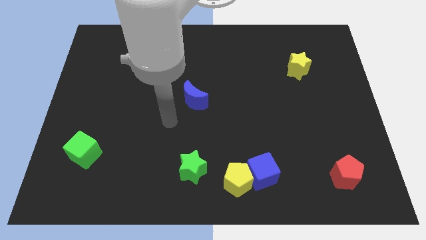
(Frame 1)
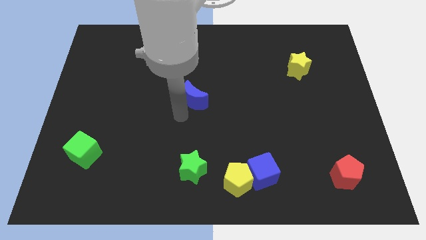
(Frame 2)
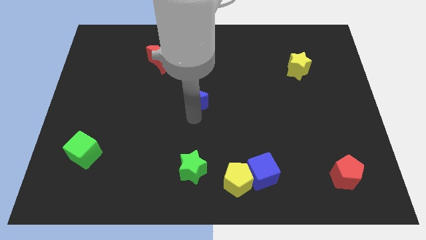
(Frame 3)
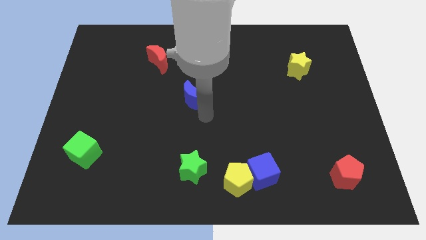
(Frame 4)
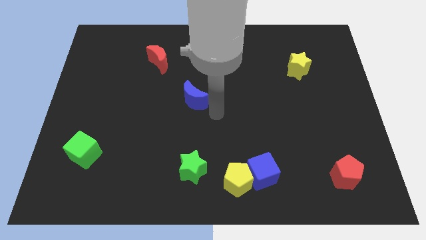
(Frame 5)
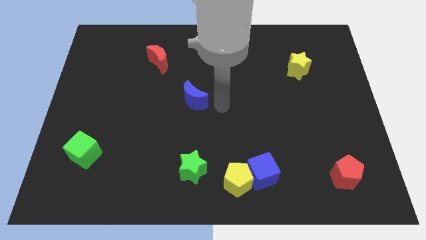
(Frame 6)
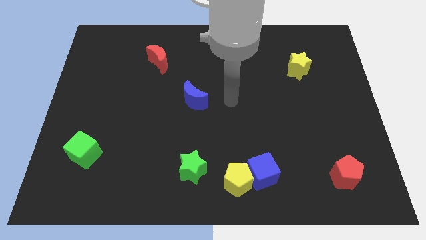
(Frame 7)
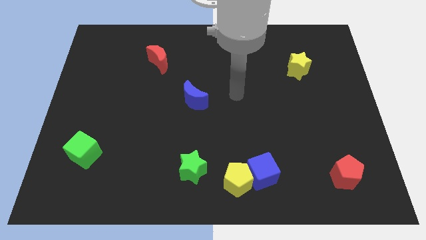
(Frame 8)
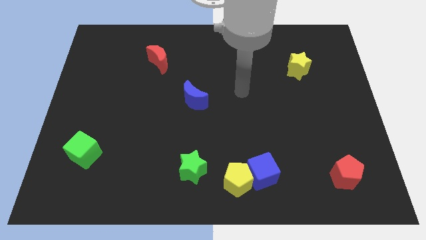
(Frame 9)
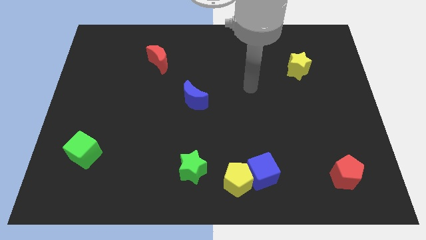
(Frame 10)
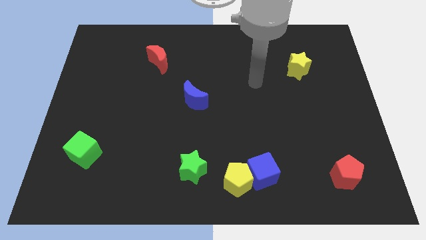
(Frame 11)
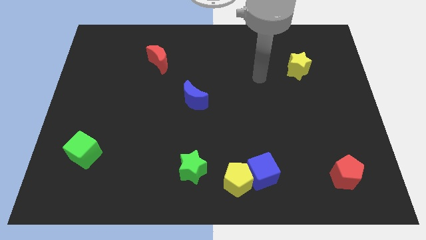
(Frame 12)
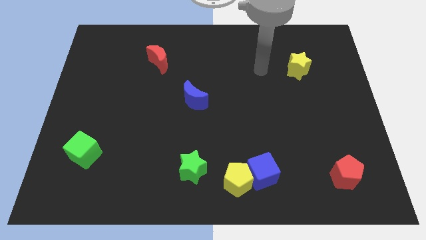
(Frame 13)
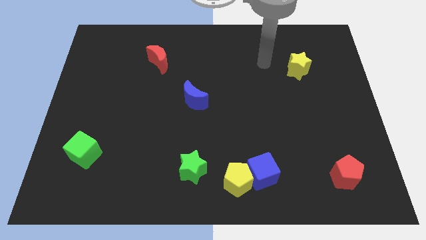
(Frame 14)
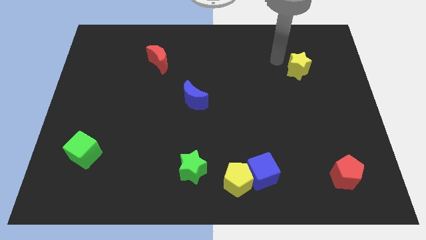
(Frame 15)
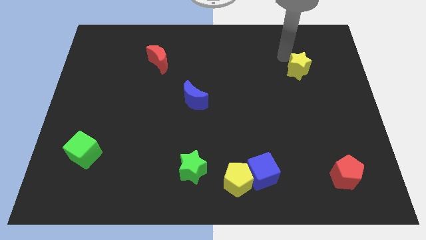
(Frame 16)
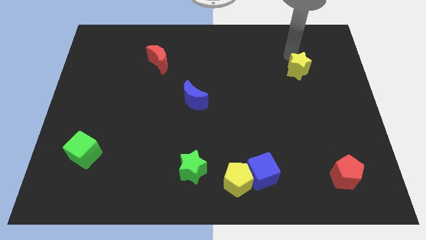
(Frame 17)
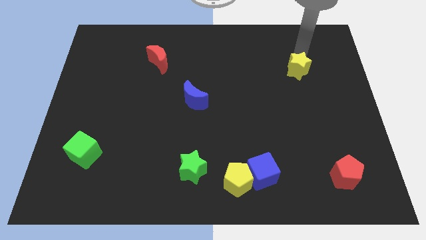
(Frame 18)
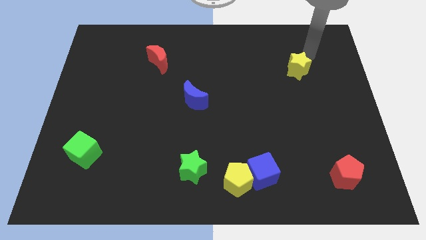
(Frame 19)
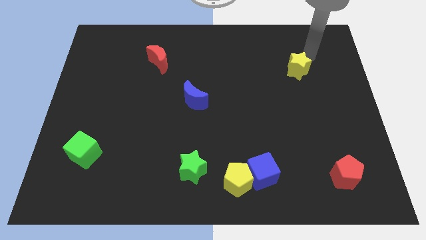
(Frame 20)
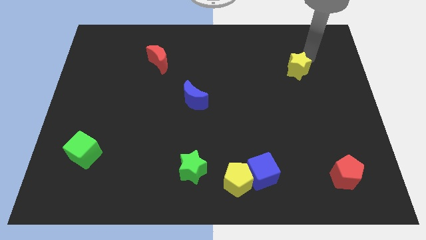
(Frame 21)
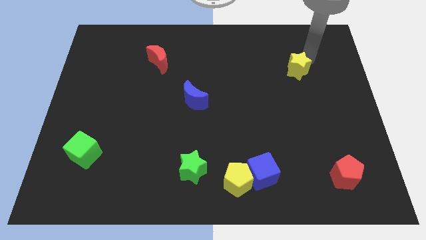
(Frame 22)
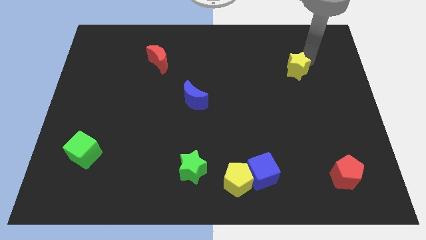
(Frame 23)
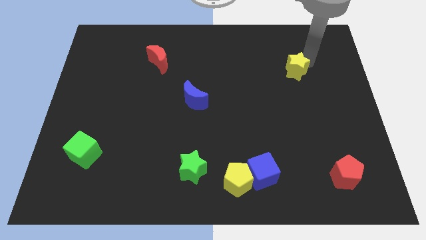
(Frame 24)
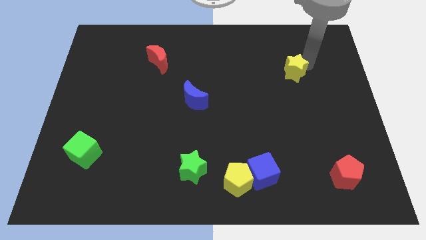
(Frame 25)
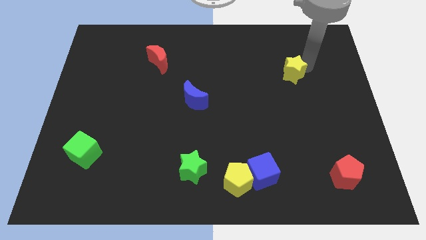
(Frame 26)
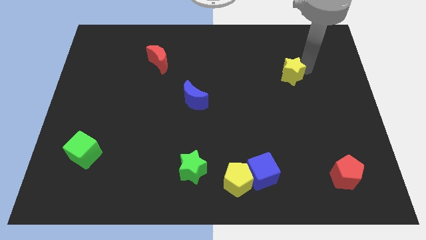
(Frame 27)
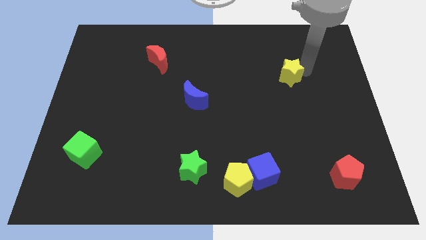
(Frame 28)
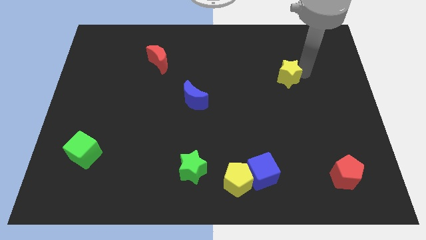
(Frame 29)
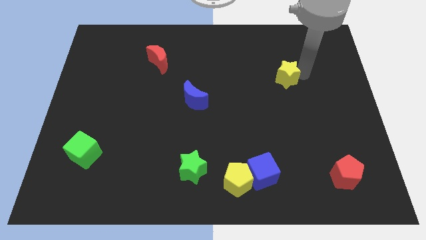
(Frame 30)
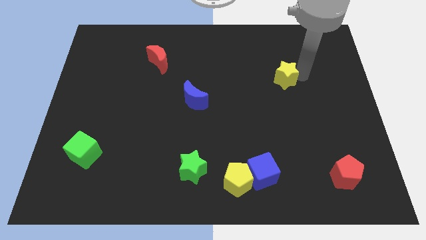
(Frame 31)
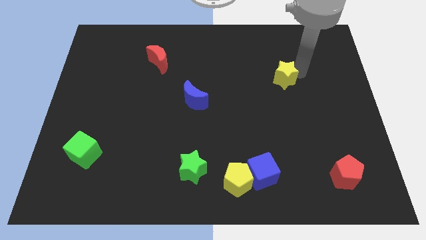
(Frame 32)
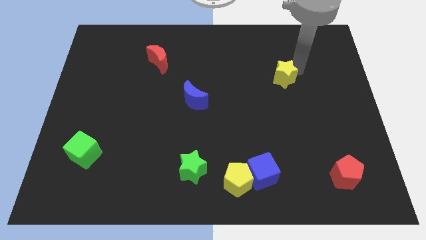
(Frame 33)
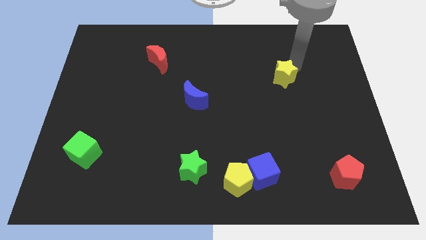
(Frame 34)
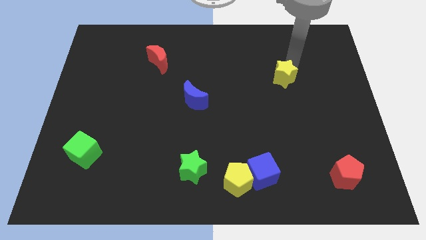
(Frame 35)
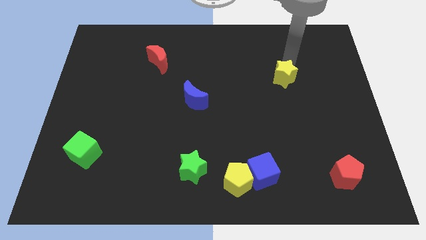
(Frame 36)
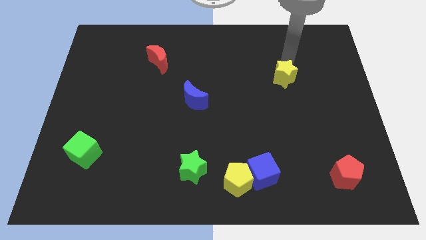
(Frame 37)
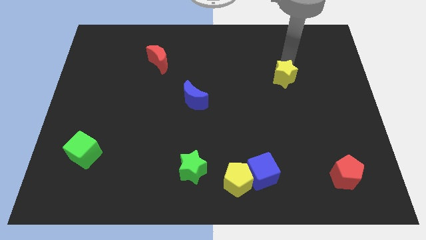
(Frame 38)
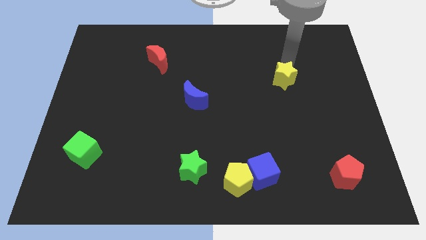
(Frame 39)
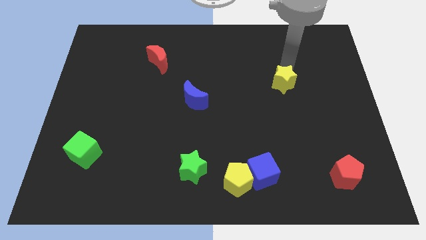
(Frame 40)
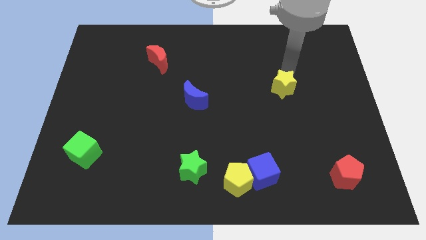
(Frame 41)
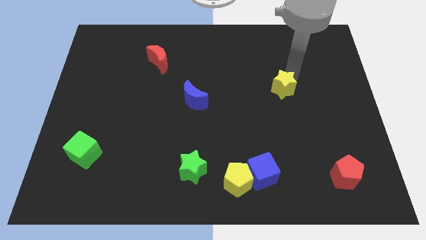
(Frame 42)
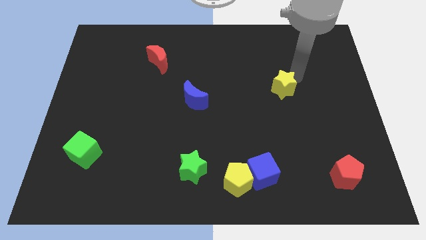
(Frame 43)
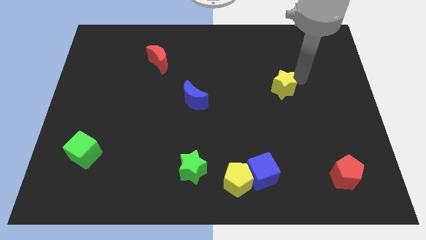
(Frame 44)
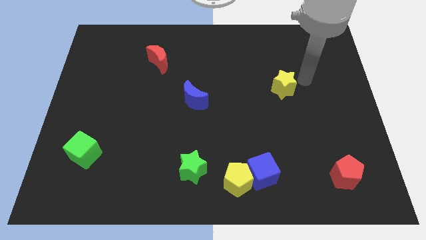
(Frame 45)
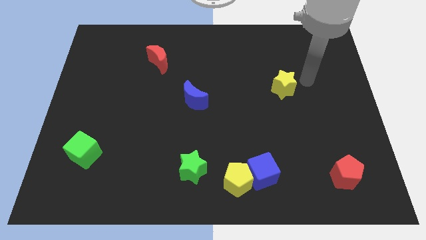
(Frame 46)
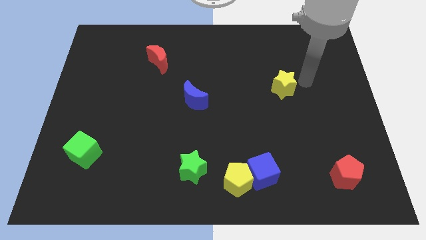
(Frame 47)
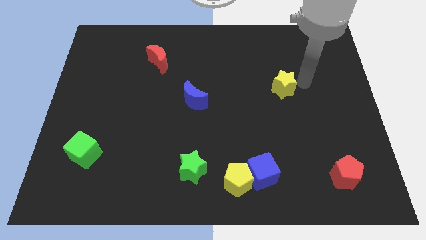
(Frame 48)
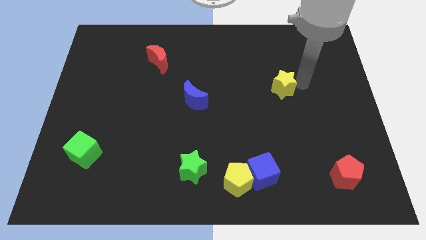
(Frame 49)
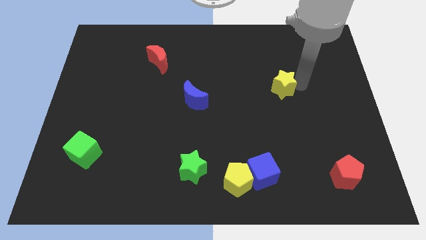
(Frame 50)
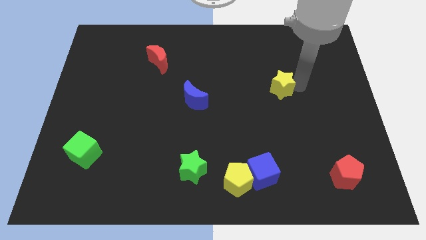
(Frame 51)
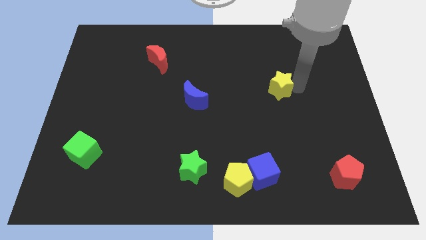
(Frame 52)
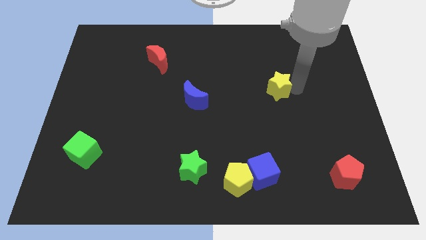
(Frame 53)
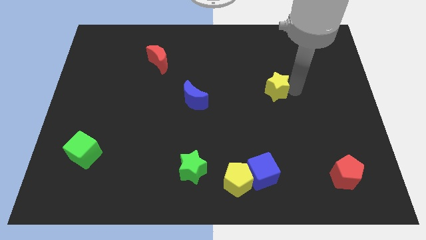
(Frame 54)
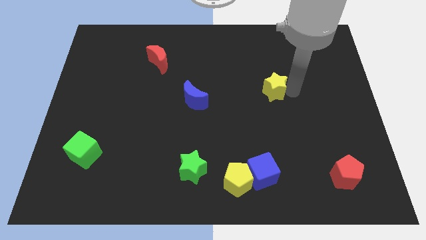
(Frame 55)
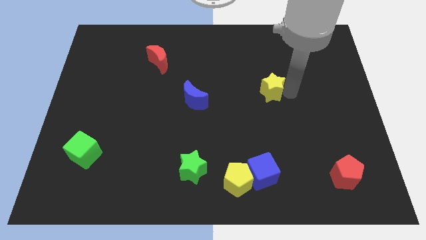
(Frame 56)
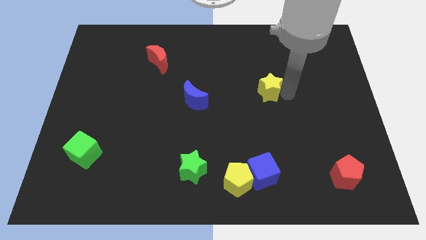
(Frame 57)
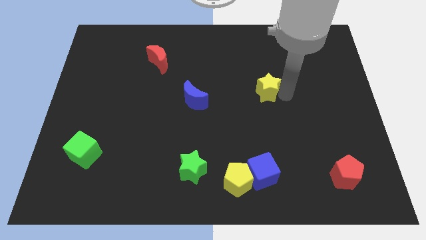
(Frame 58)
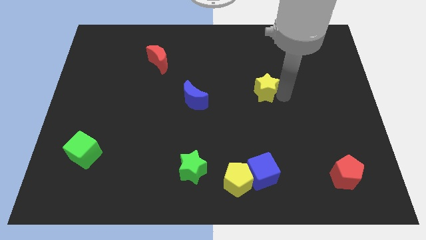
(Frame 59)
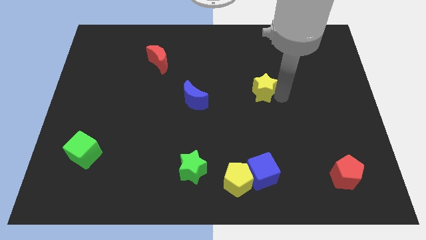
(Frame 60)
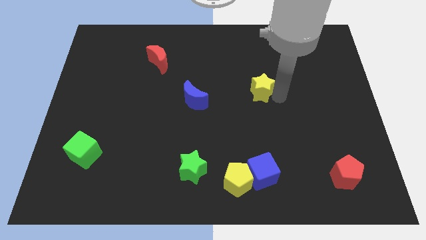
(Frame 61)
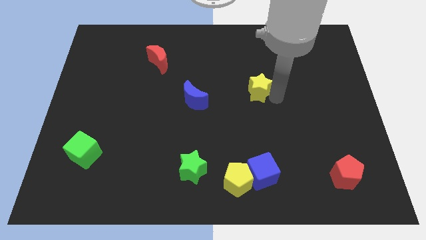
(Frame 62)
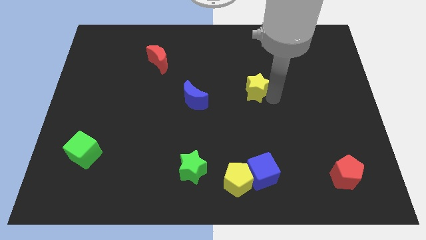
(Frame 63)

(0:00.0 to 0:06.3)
slide the yellow star to the right of the blue moon

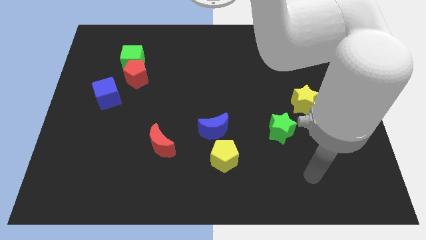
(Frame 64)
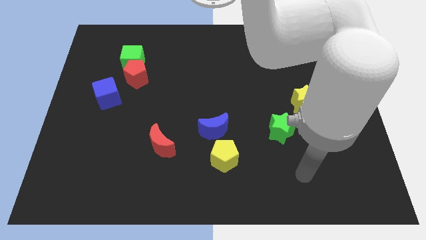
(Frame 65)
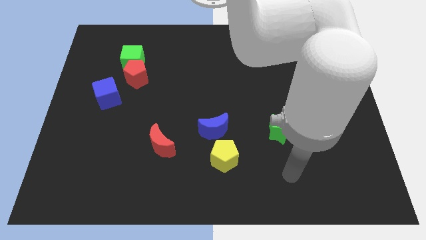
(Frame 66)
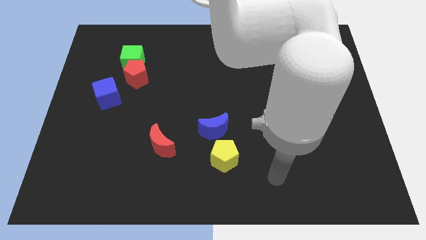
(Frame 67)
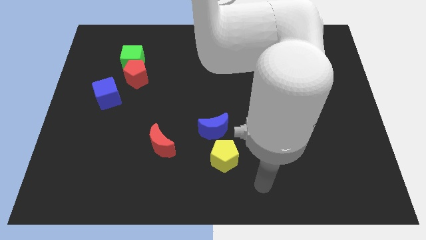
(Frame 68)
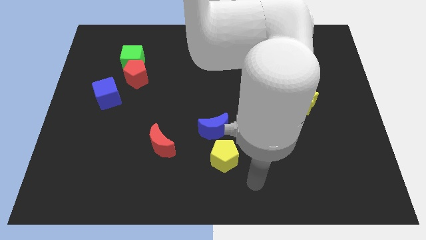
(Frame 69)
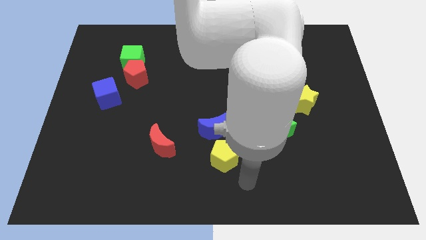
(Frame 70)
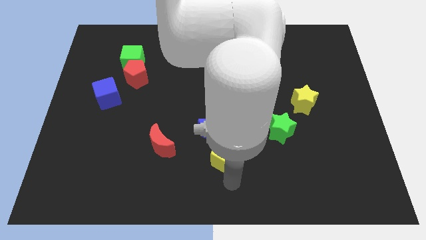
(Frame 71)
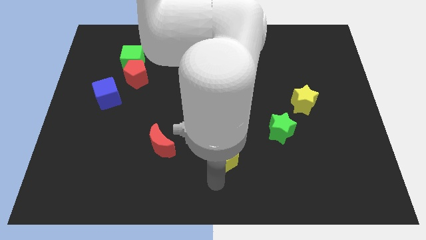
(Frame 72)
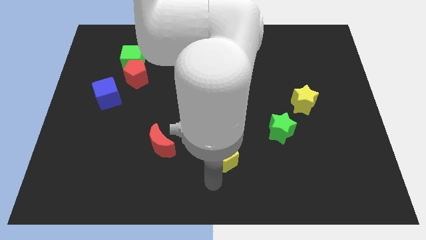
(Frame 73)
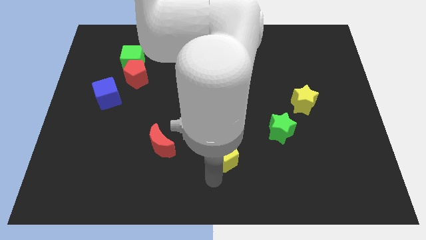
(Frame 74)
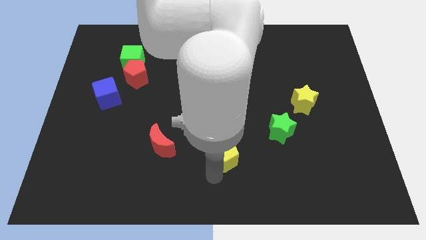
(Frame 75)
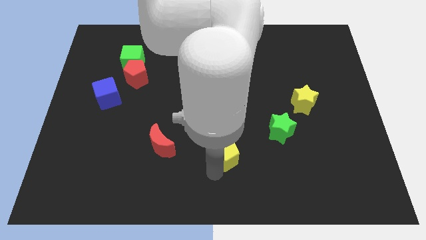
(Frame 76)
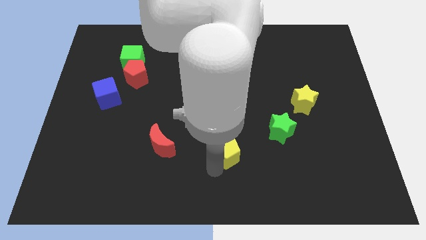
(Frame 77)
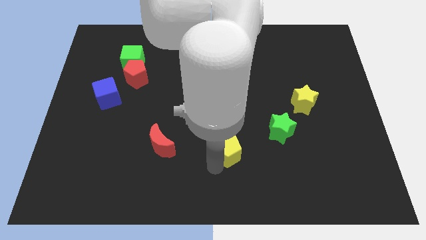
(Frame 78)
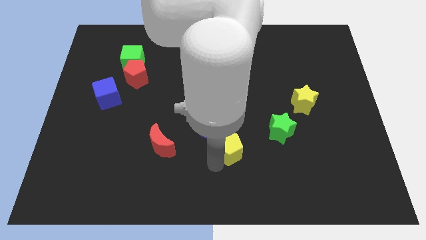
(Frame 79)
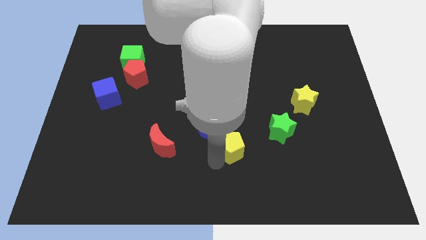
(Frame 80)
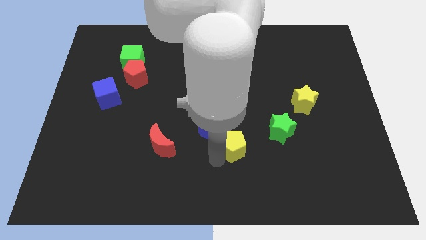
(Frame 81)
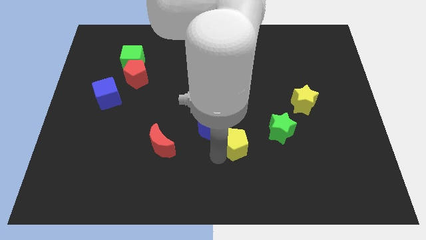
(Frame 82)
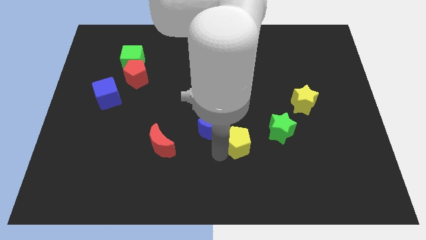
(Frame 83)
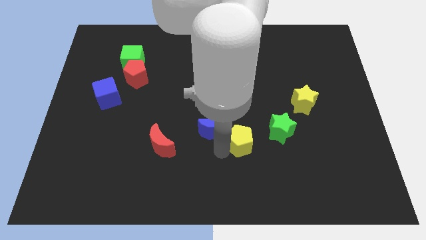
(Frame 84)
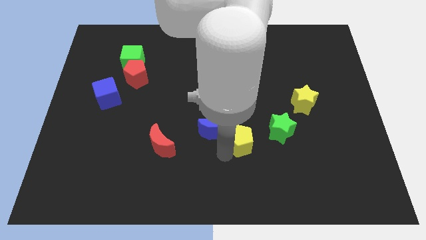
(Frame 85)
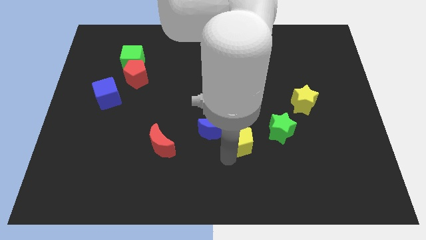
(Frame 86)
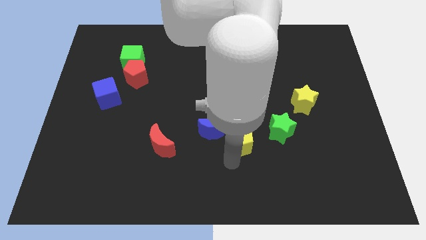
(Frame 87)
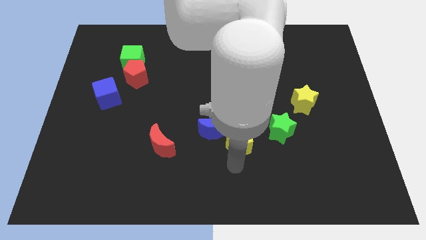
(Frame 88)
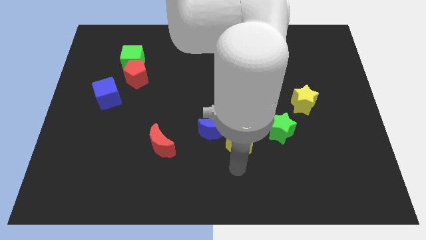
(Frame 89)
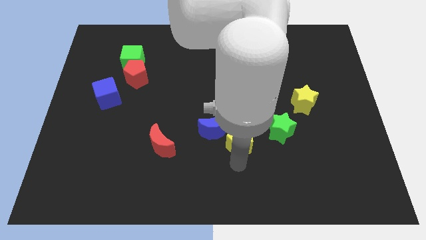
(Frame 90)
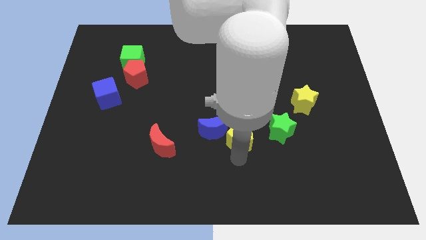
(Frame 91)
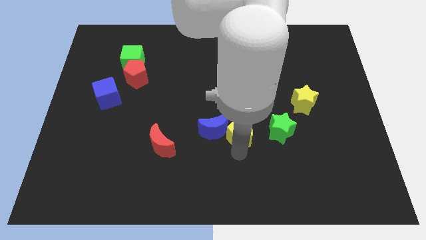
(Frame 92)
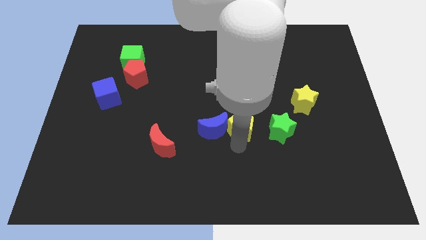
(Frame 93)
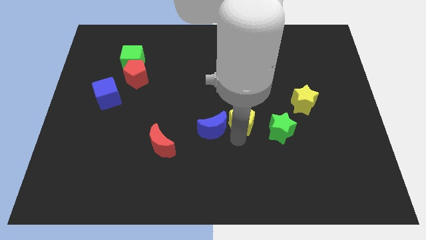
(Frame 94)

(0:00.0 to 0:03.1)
slide the yellow pentagon diagonally up and to the left of the green star
